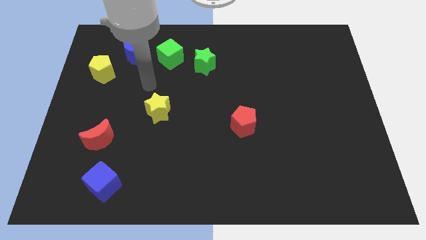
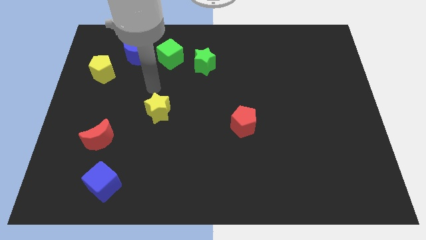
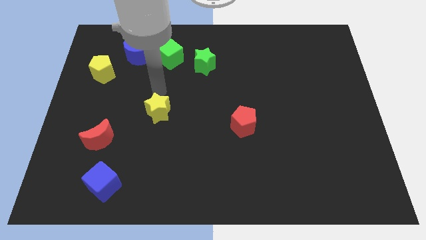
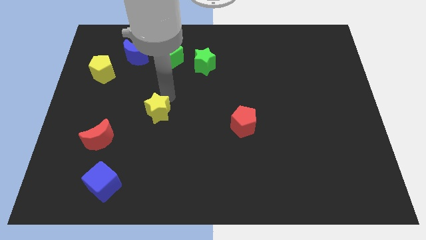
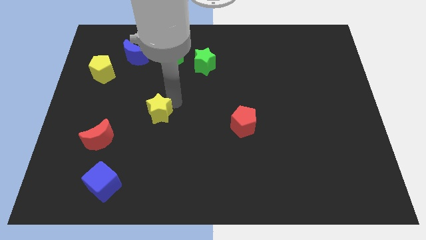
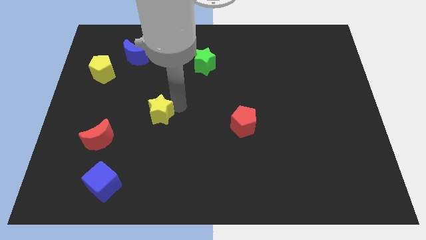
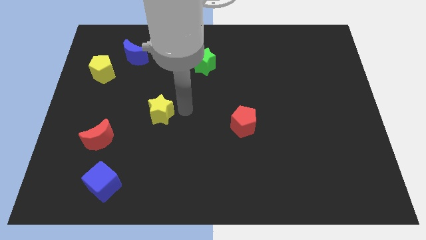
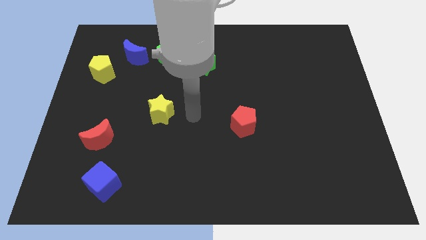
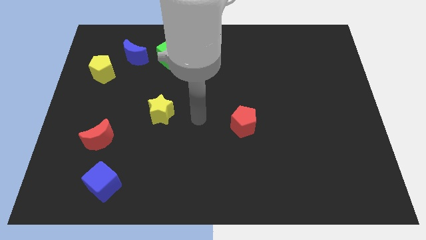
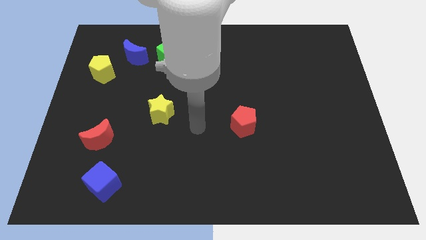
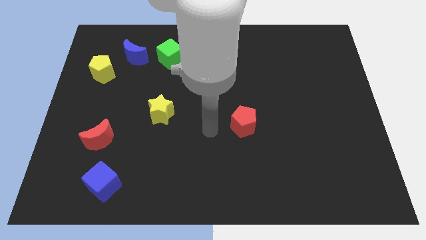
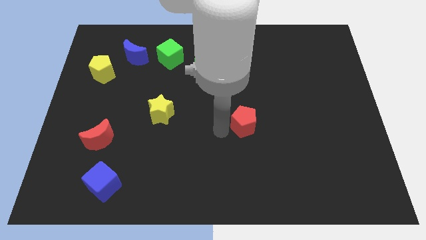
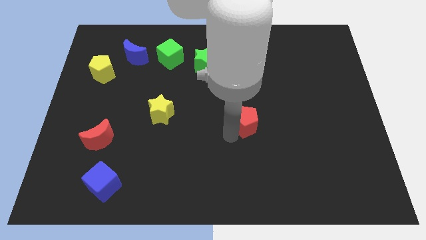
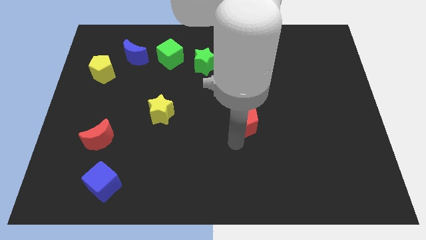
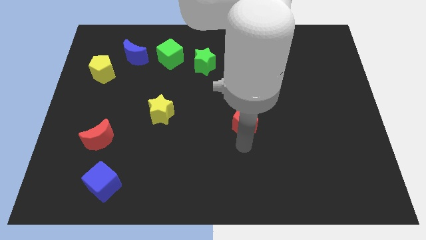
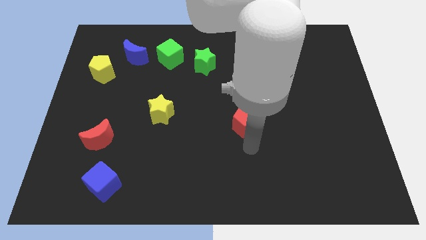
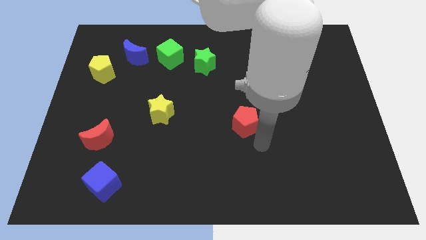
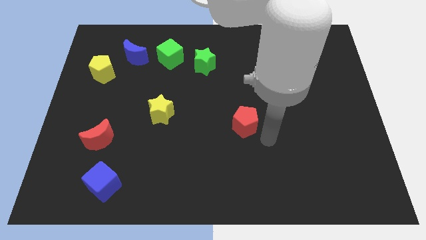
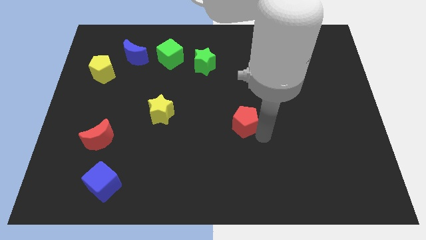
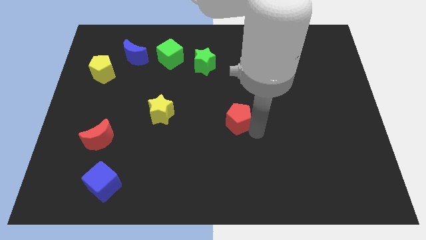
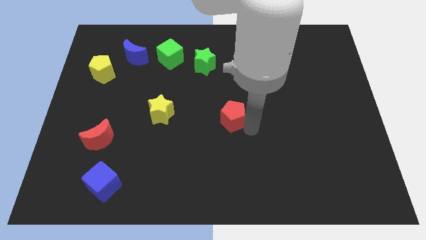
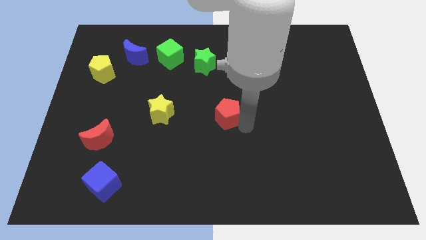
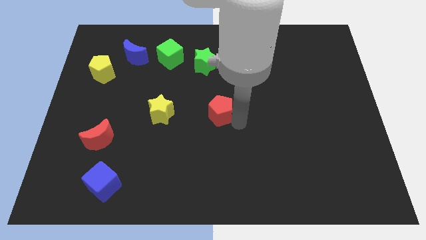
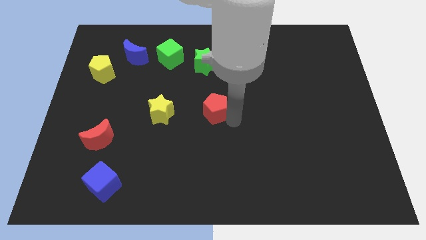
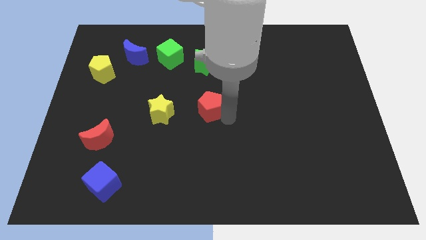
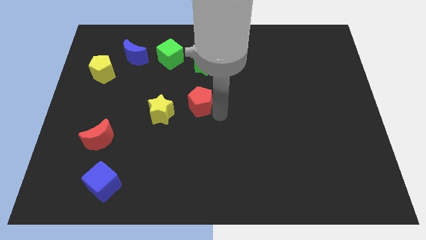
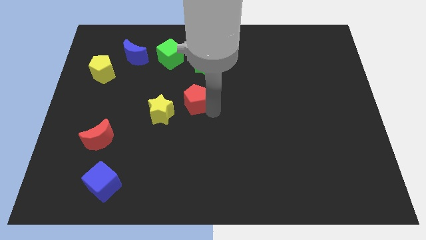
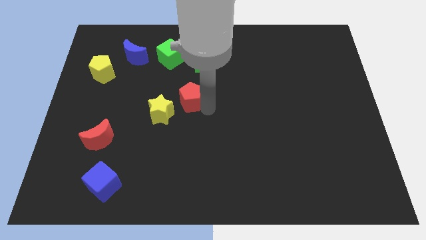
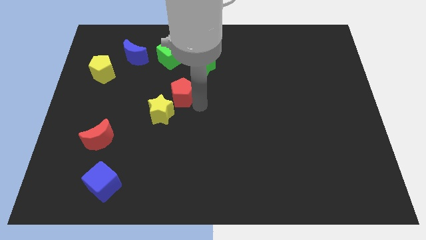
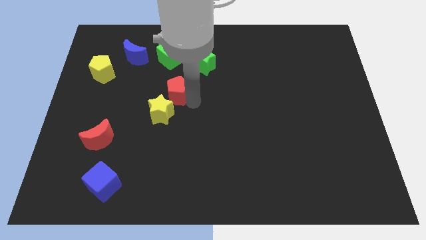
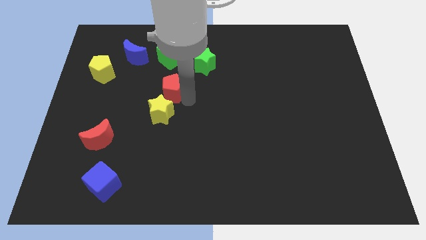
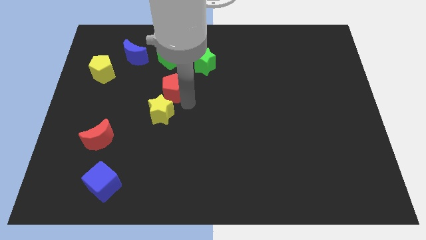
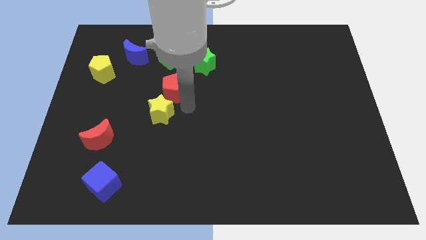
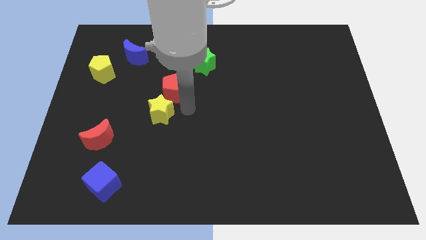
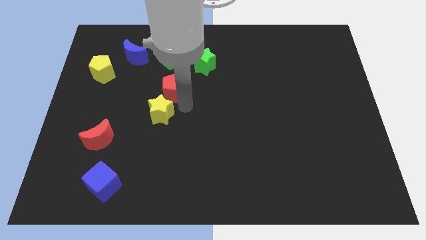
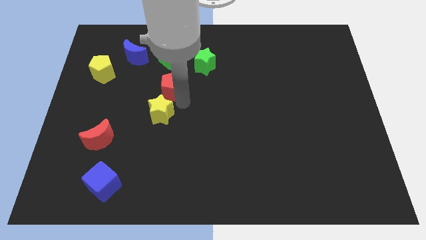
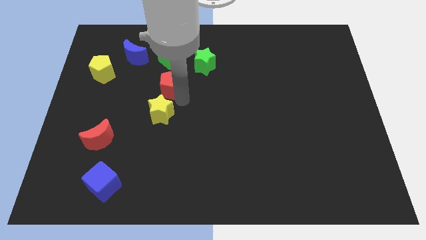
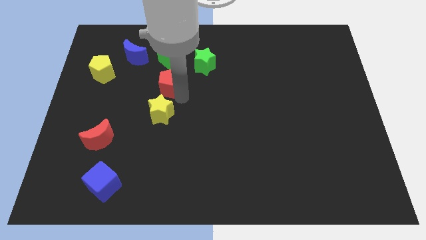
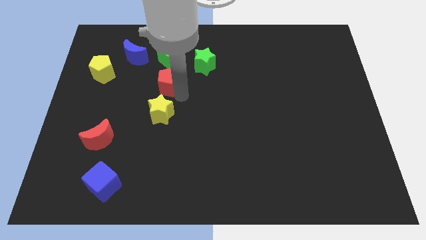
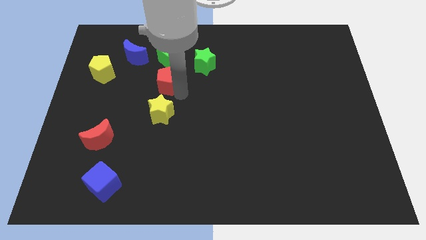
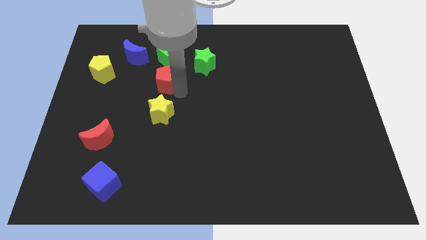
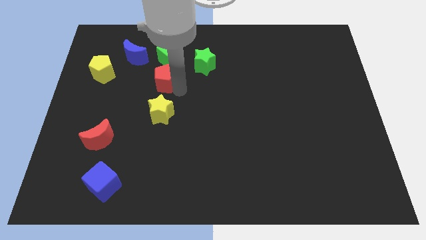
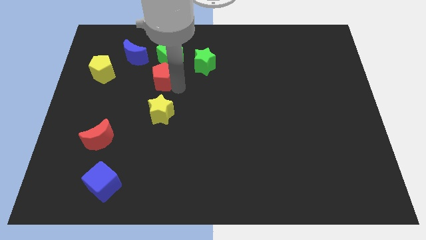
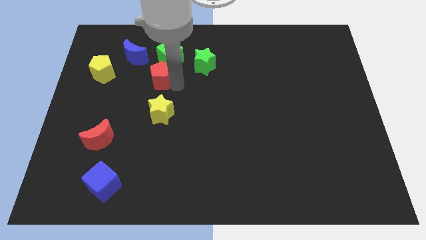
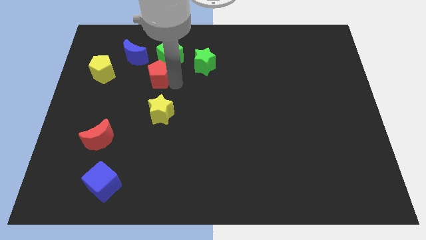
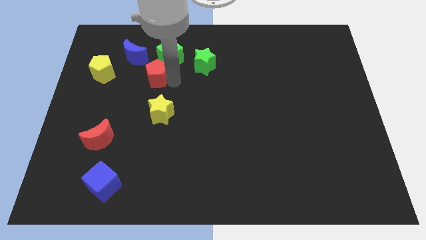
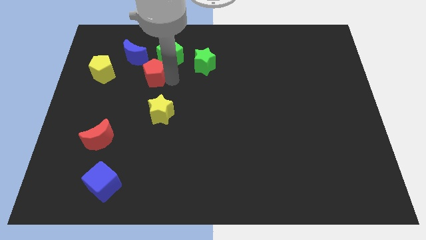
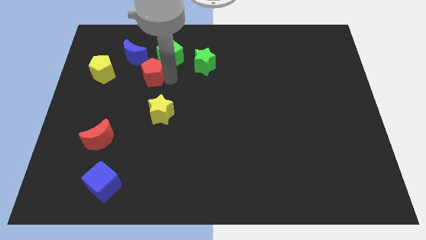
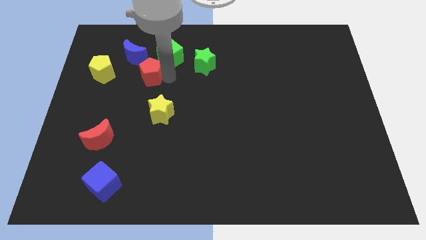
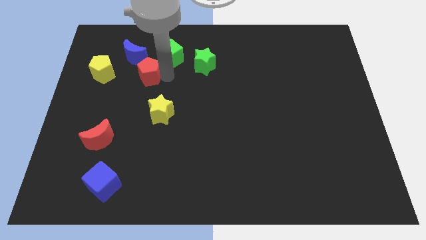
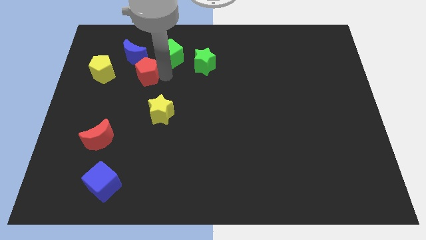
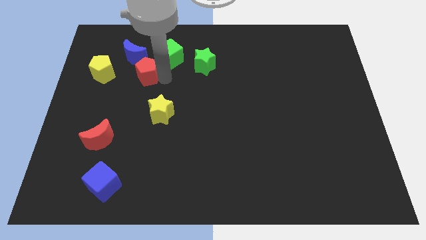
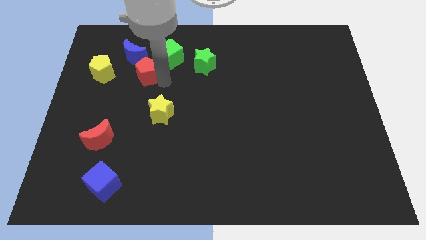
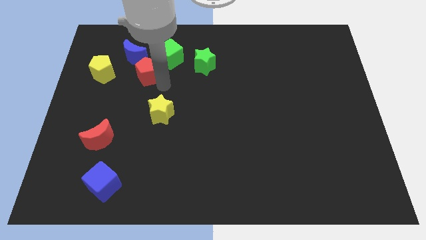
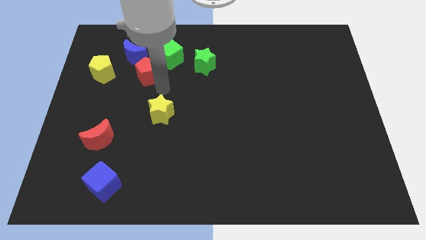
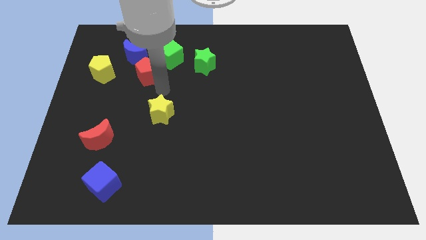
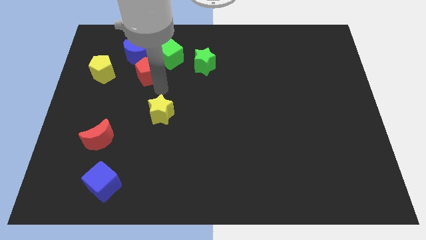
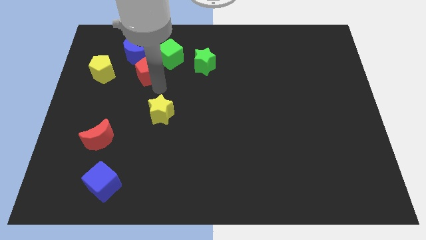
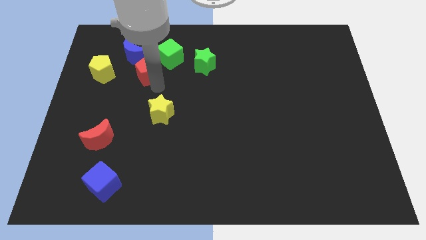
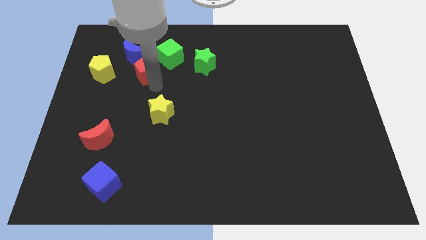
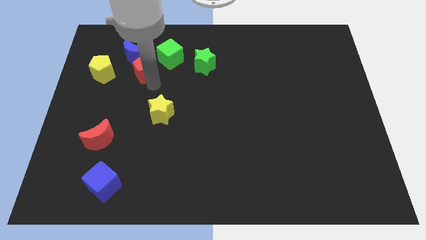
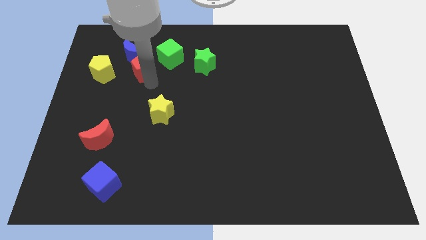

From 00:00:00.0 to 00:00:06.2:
put the red pentagon close to the blue moon

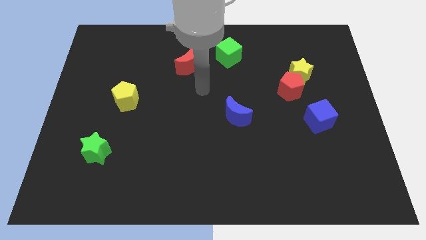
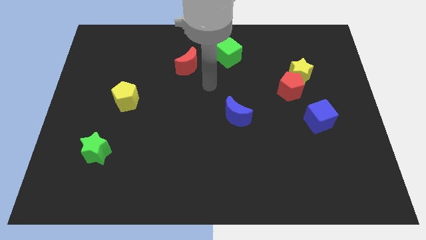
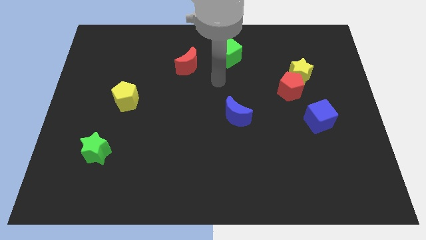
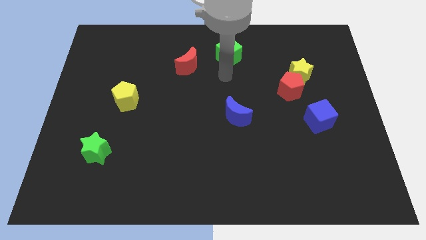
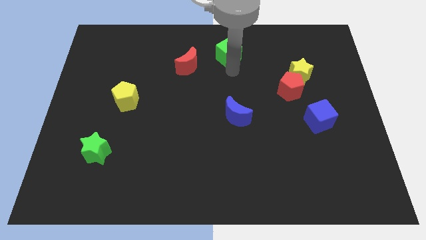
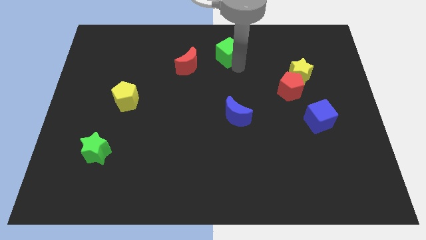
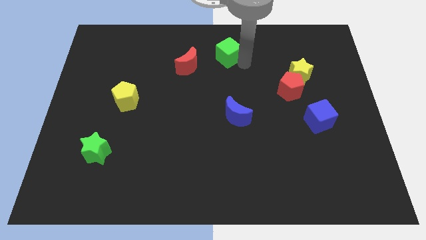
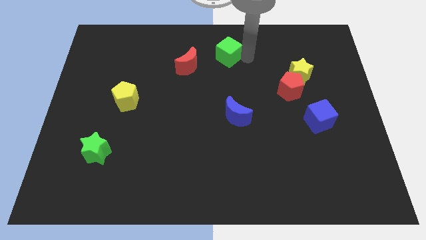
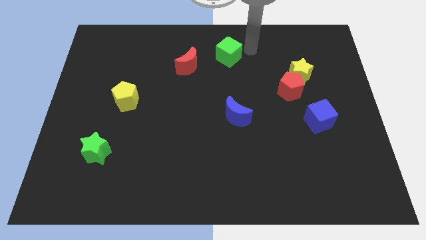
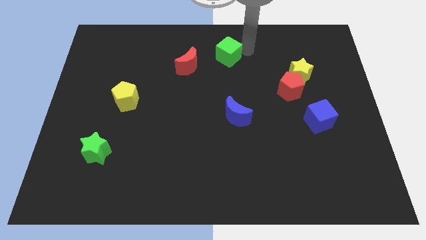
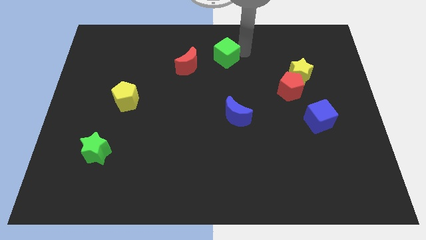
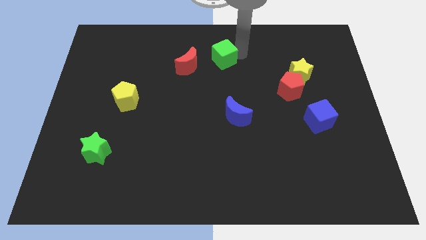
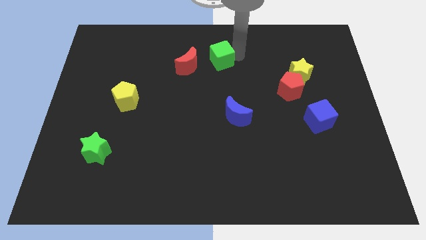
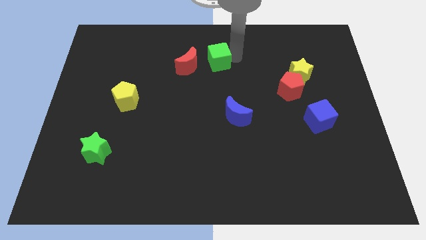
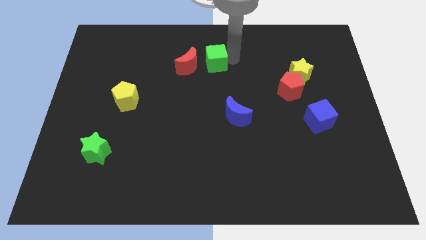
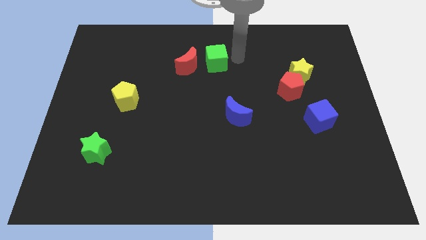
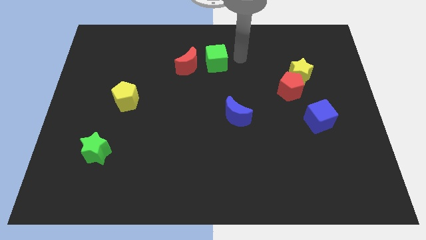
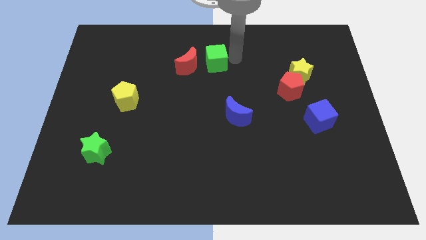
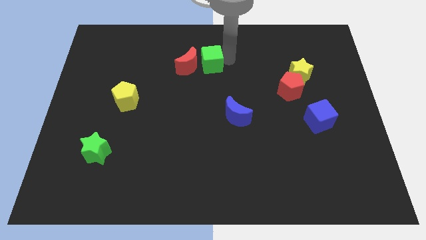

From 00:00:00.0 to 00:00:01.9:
slide the green cube close to the red moon
